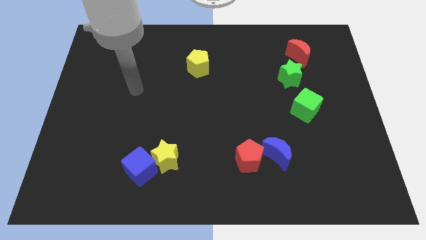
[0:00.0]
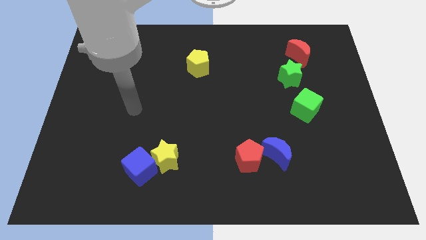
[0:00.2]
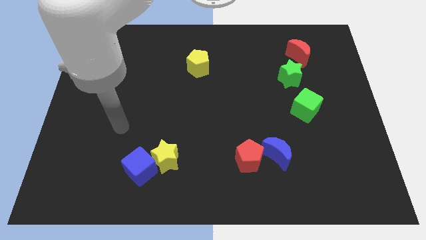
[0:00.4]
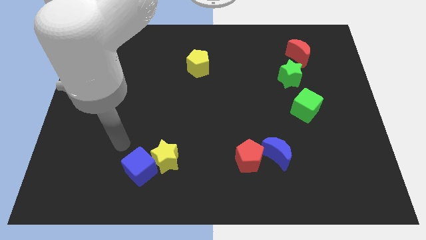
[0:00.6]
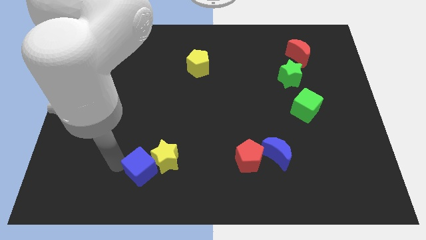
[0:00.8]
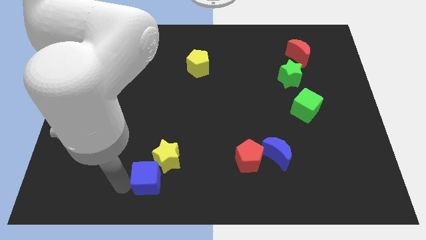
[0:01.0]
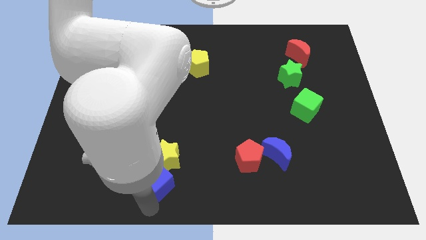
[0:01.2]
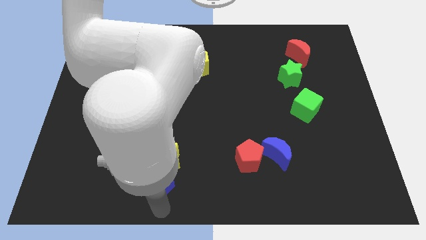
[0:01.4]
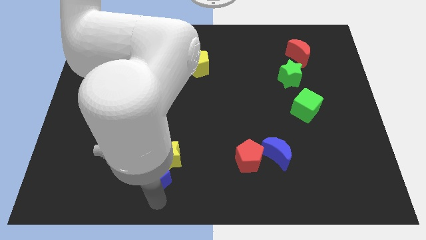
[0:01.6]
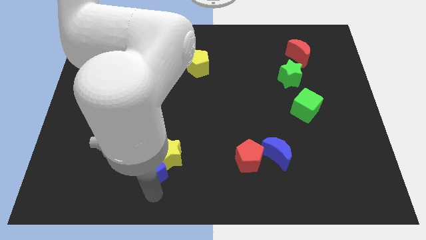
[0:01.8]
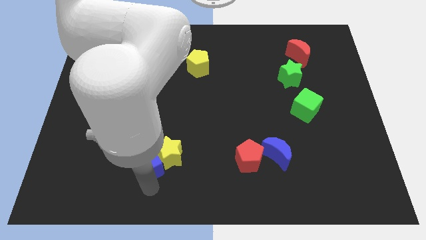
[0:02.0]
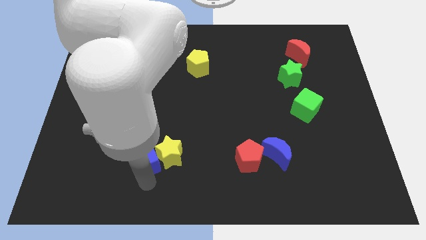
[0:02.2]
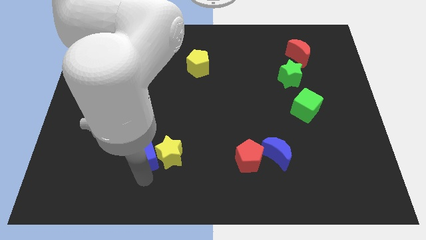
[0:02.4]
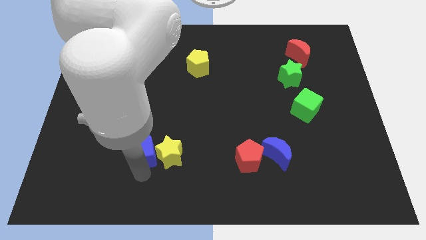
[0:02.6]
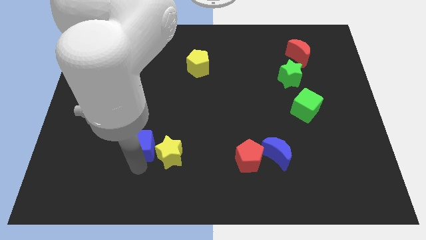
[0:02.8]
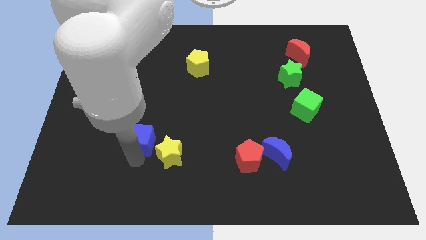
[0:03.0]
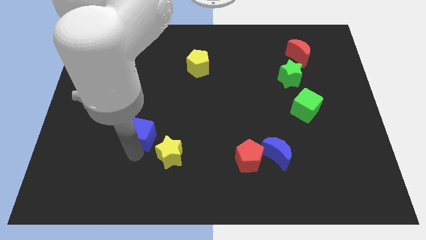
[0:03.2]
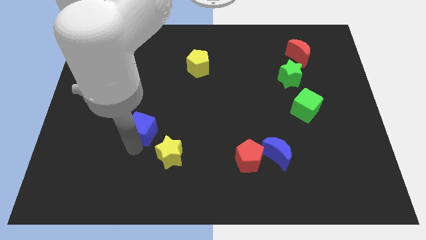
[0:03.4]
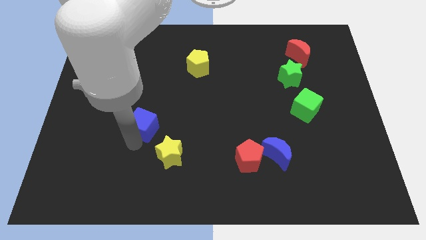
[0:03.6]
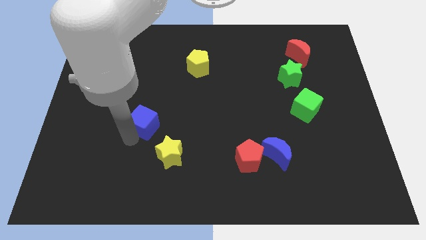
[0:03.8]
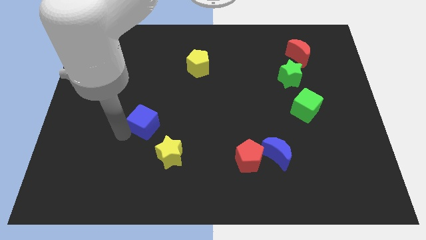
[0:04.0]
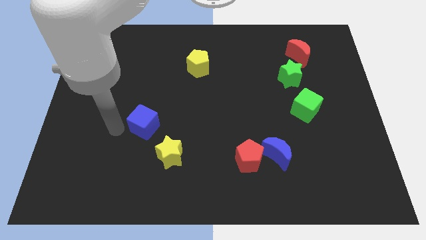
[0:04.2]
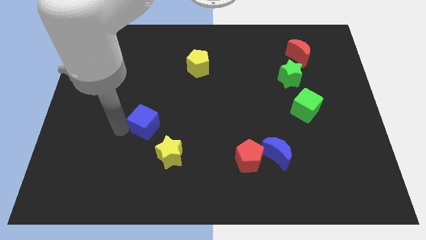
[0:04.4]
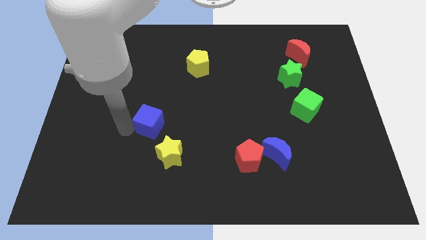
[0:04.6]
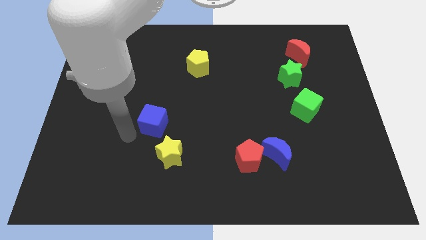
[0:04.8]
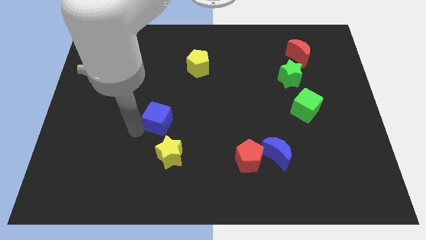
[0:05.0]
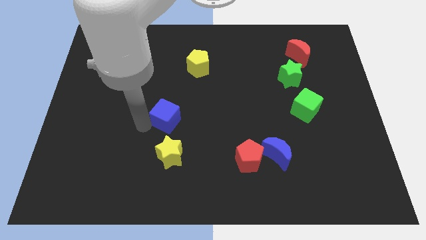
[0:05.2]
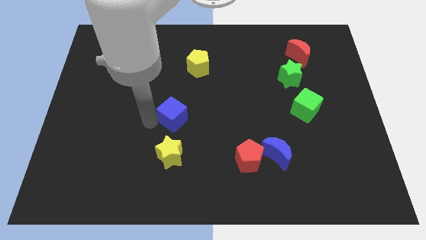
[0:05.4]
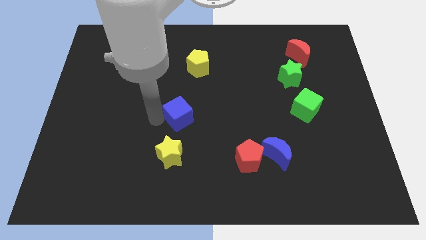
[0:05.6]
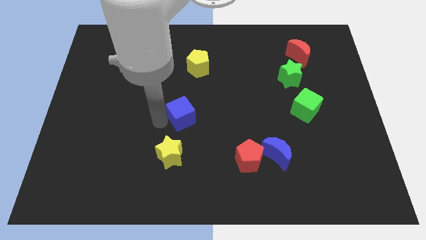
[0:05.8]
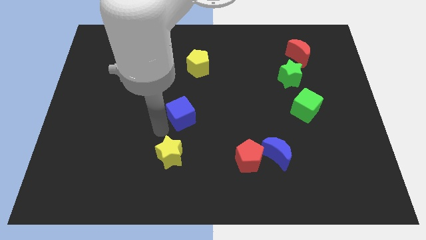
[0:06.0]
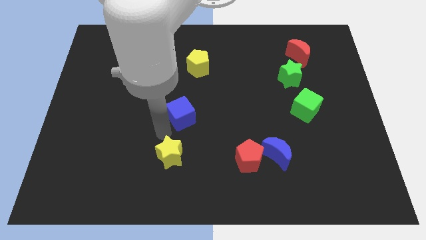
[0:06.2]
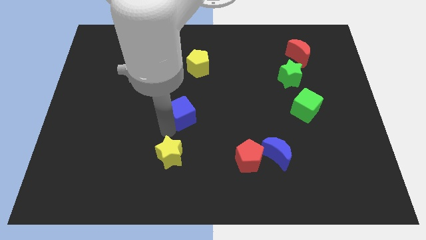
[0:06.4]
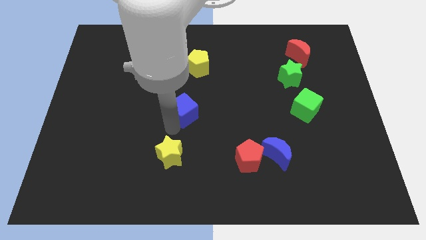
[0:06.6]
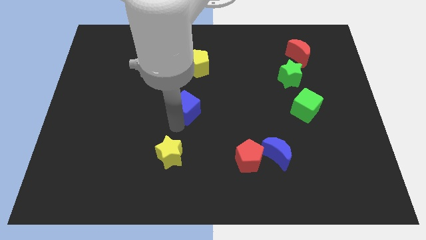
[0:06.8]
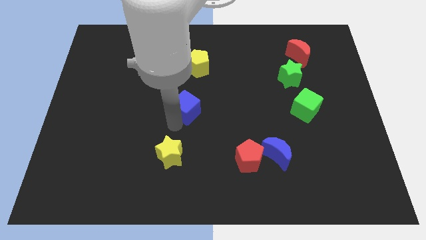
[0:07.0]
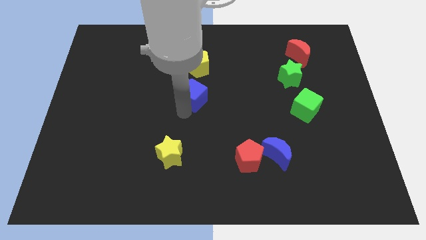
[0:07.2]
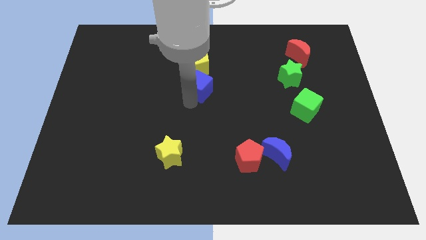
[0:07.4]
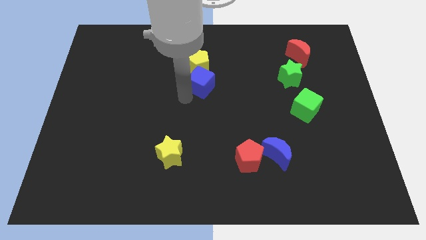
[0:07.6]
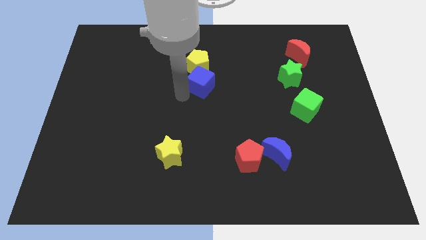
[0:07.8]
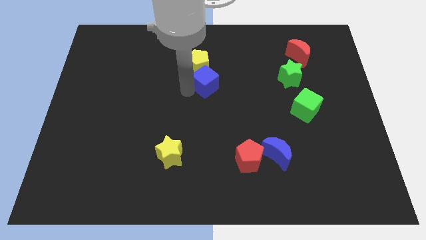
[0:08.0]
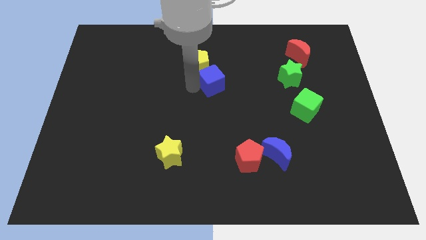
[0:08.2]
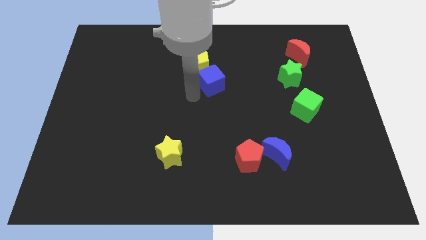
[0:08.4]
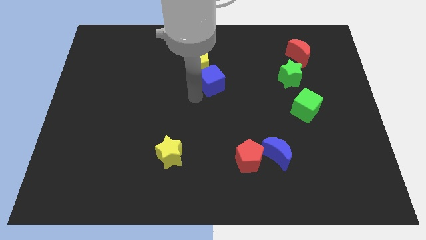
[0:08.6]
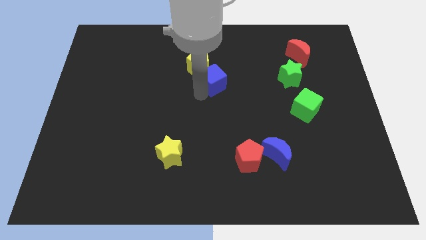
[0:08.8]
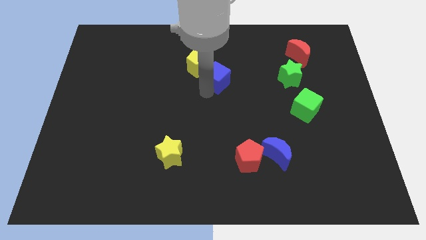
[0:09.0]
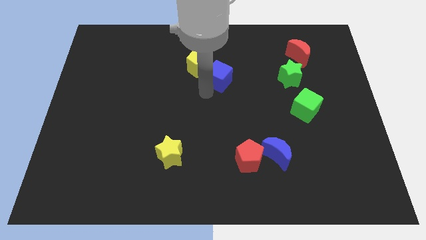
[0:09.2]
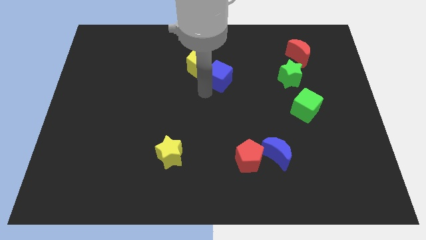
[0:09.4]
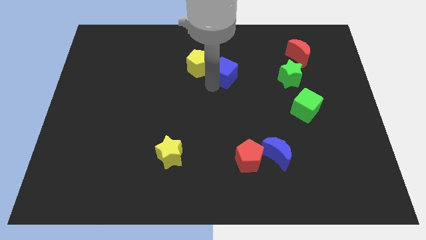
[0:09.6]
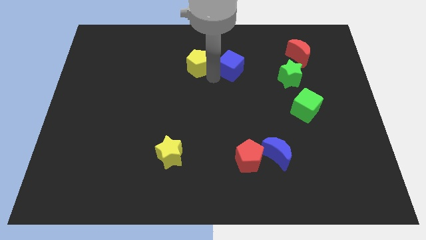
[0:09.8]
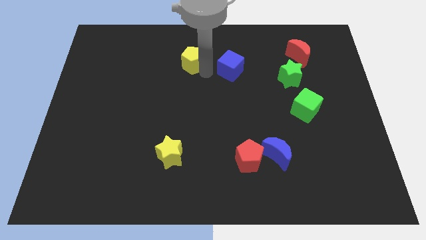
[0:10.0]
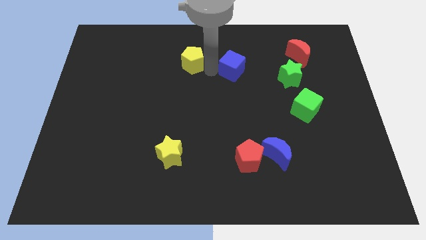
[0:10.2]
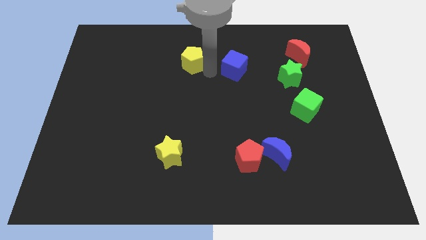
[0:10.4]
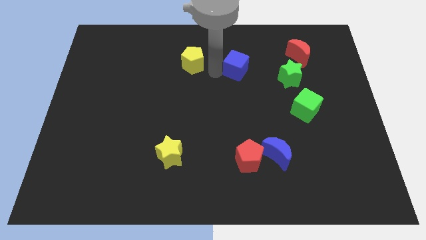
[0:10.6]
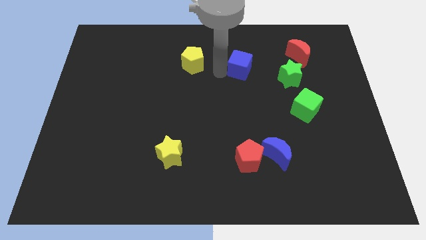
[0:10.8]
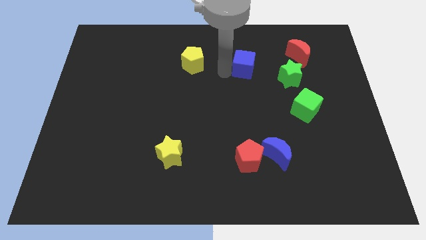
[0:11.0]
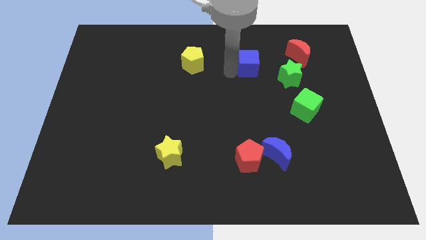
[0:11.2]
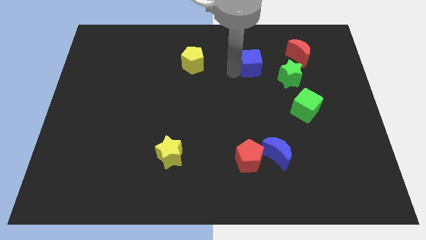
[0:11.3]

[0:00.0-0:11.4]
push the blue cube to the top left of the green star
